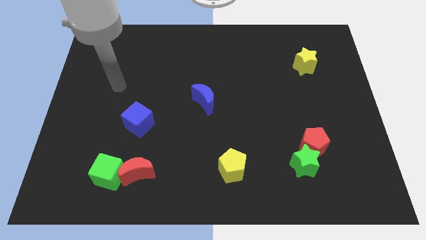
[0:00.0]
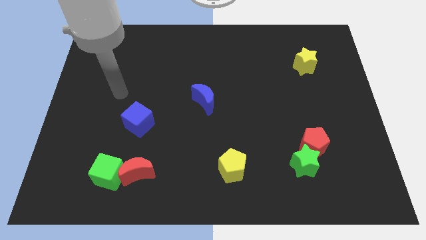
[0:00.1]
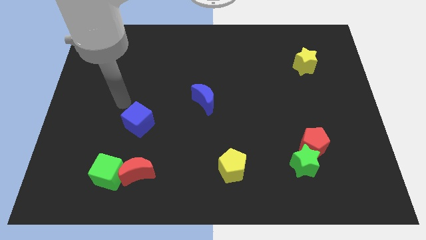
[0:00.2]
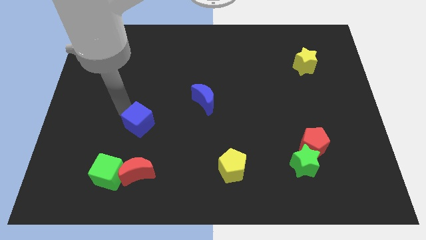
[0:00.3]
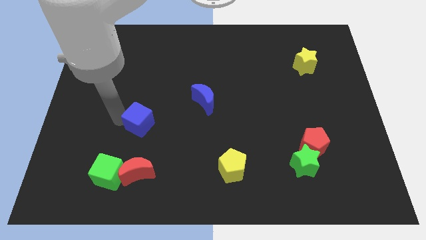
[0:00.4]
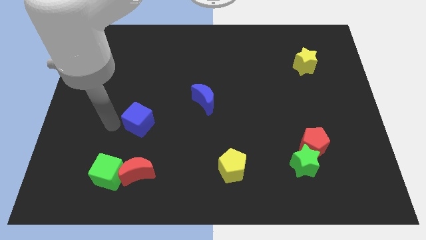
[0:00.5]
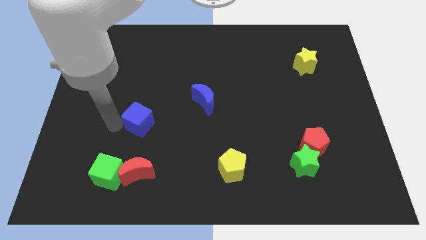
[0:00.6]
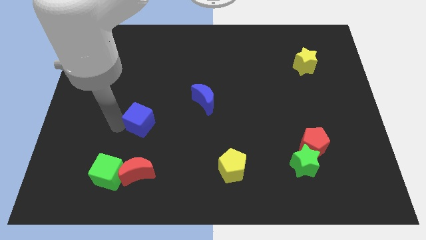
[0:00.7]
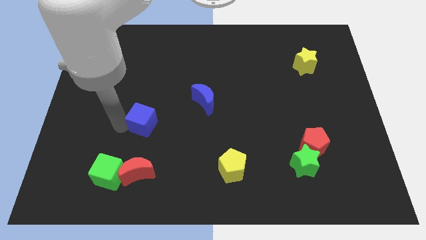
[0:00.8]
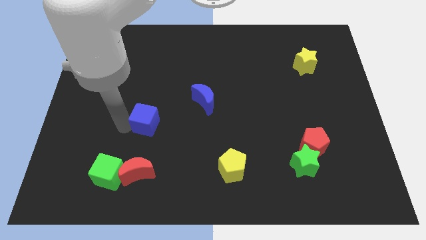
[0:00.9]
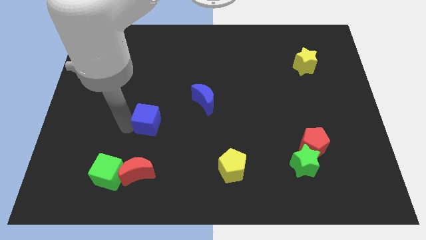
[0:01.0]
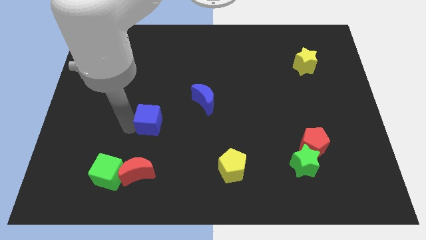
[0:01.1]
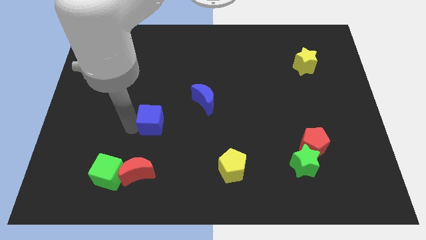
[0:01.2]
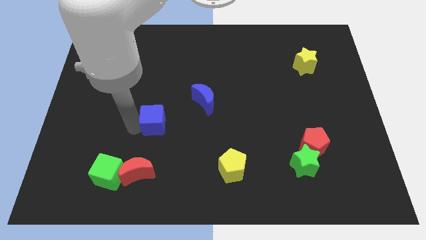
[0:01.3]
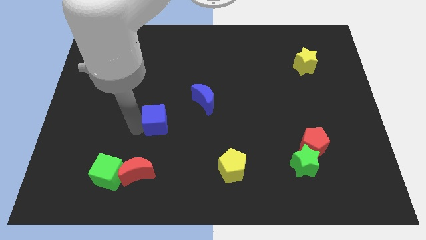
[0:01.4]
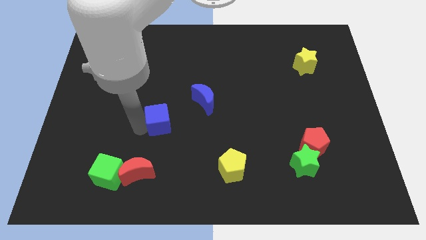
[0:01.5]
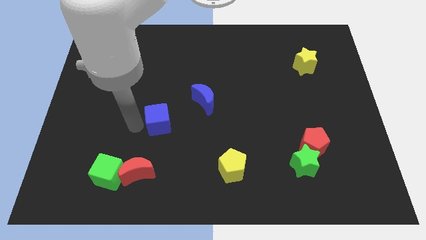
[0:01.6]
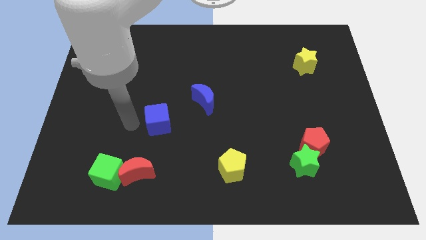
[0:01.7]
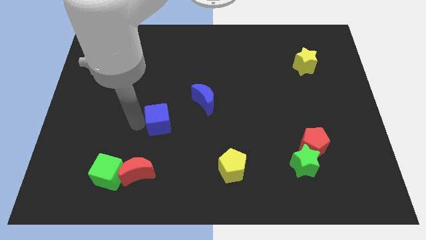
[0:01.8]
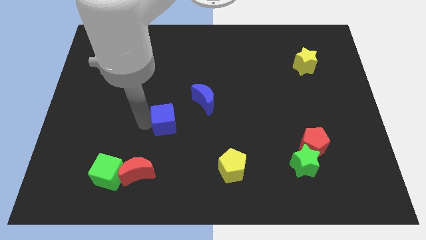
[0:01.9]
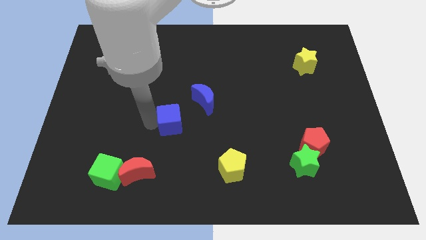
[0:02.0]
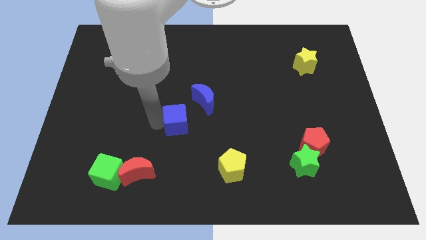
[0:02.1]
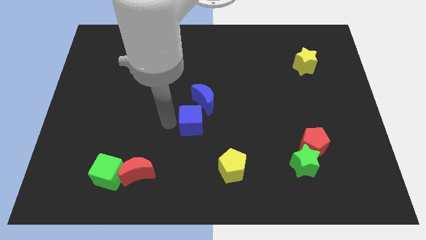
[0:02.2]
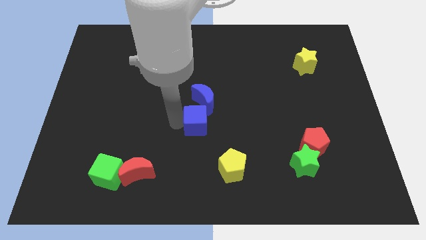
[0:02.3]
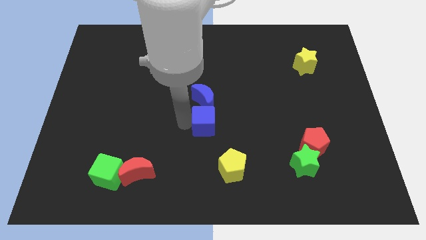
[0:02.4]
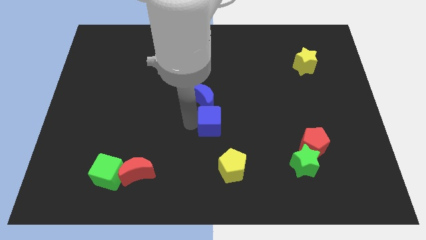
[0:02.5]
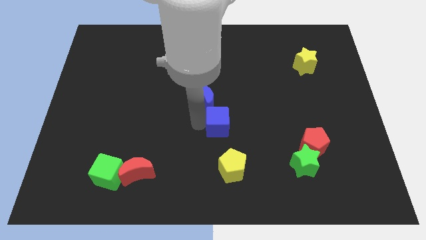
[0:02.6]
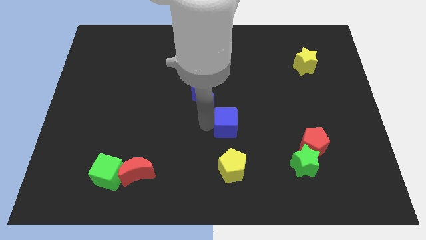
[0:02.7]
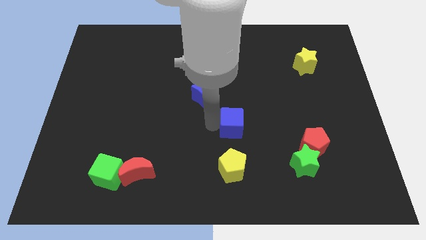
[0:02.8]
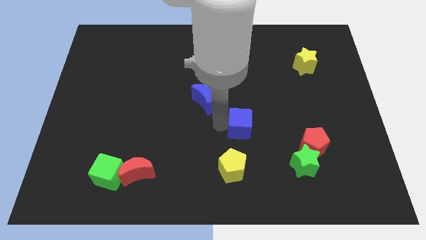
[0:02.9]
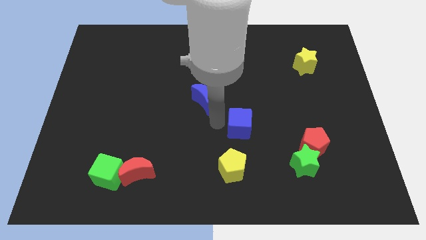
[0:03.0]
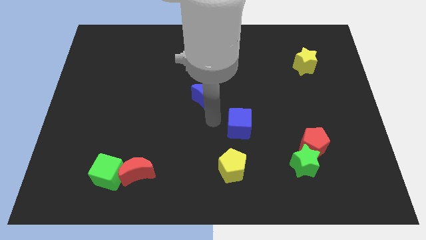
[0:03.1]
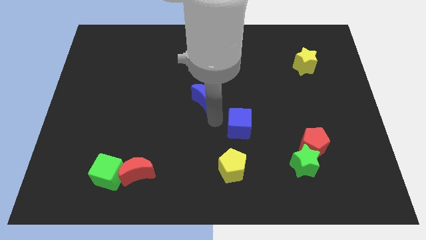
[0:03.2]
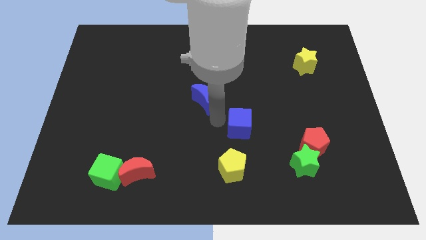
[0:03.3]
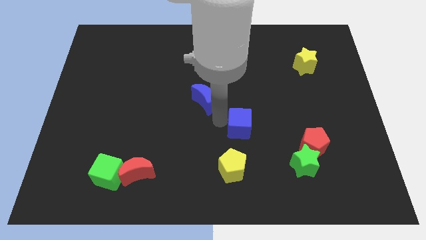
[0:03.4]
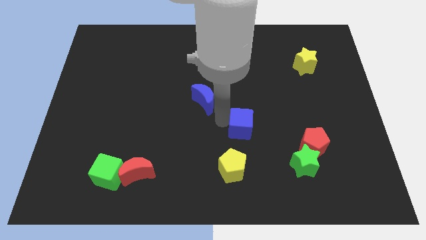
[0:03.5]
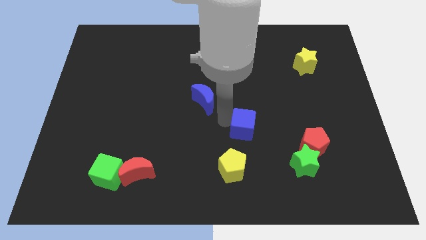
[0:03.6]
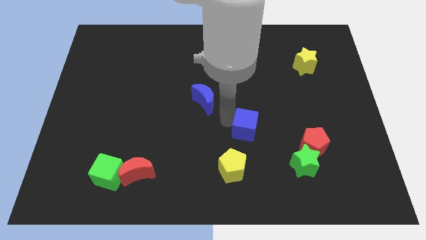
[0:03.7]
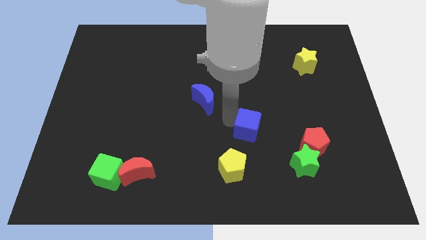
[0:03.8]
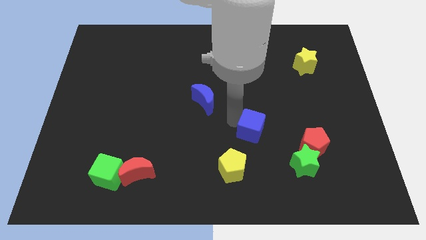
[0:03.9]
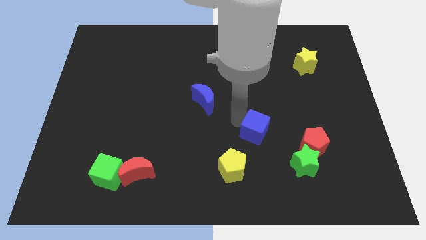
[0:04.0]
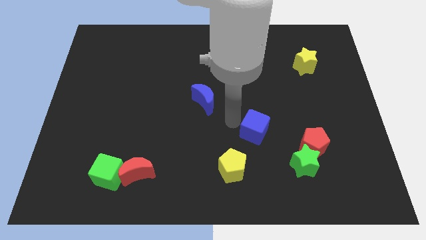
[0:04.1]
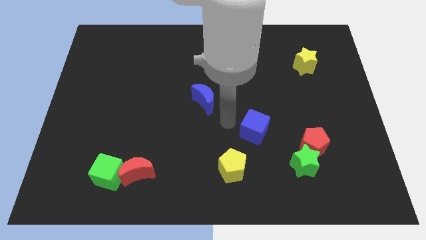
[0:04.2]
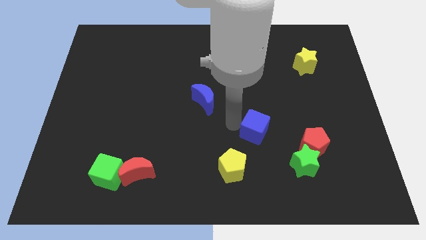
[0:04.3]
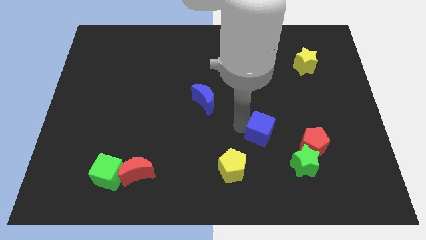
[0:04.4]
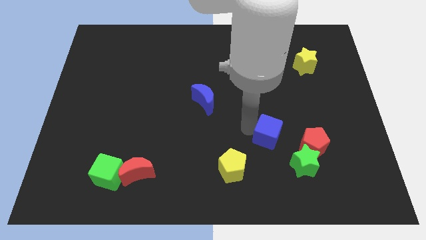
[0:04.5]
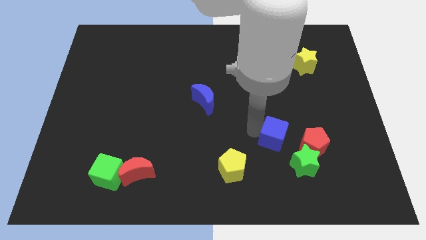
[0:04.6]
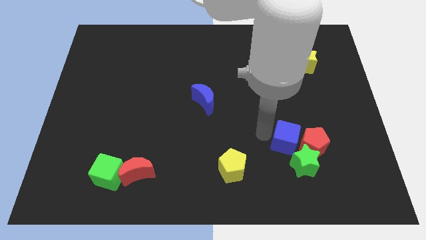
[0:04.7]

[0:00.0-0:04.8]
move the blue cube close to the red pentagon

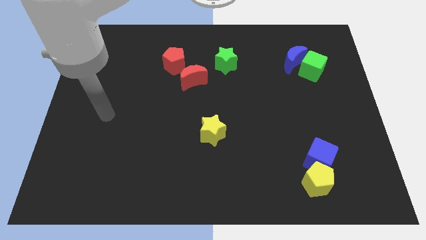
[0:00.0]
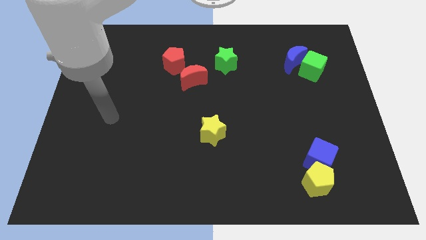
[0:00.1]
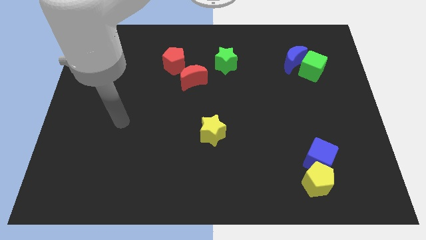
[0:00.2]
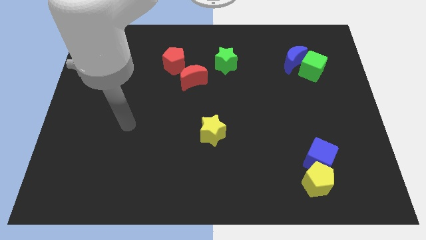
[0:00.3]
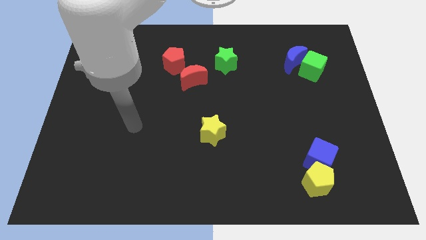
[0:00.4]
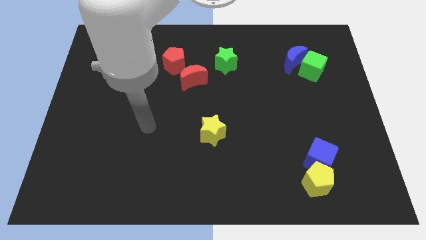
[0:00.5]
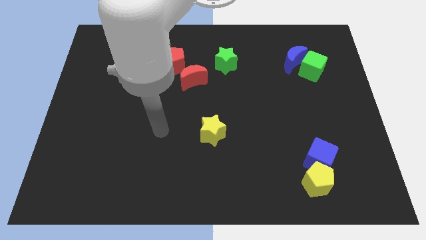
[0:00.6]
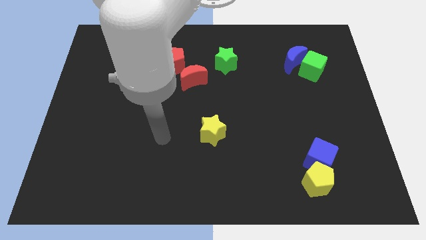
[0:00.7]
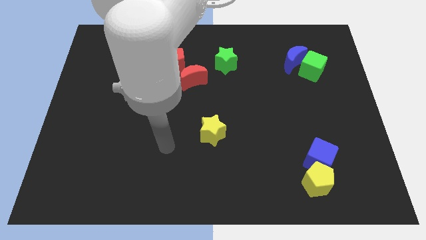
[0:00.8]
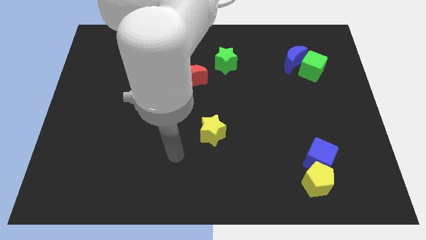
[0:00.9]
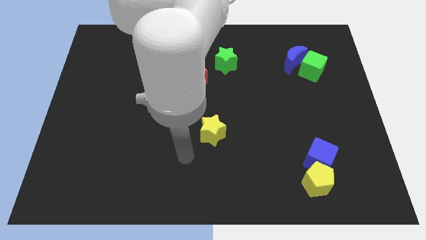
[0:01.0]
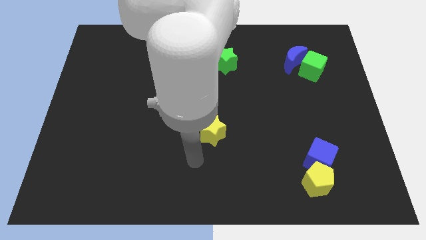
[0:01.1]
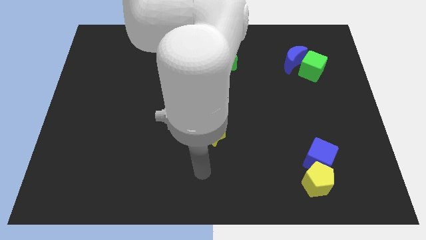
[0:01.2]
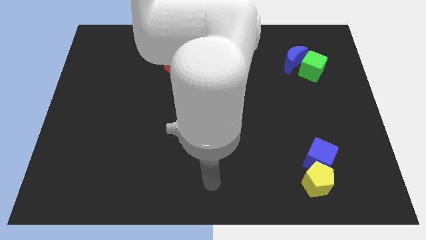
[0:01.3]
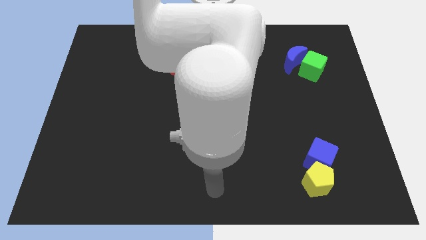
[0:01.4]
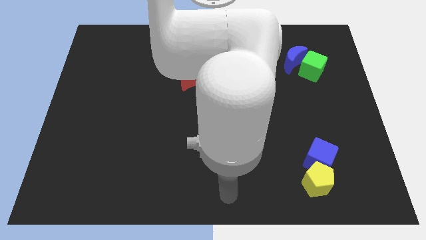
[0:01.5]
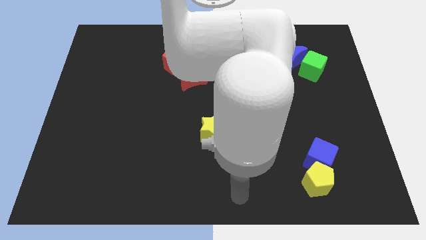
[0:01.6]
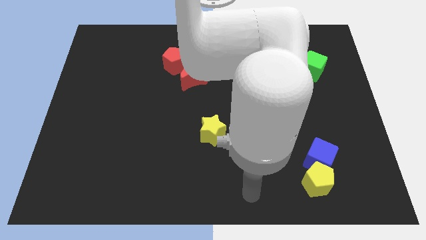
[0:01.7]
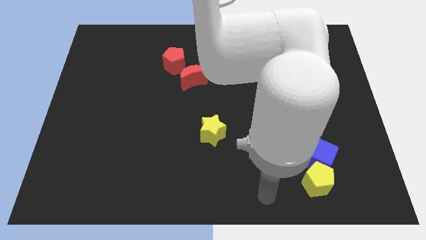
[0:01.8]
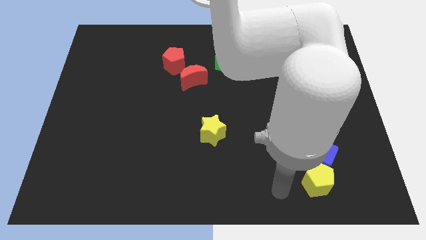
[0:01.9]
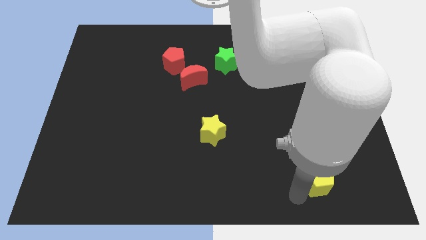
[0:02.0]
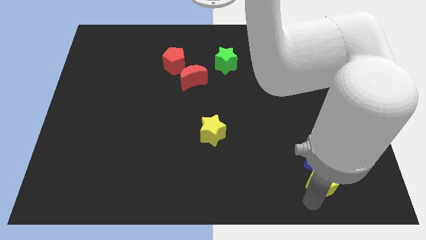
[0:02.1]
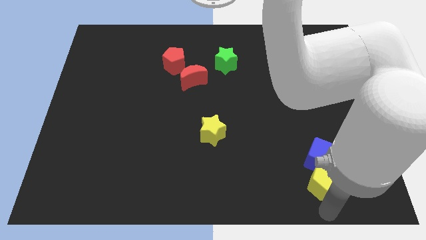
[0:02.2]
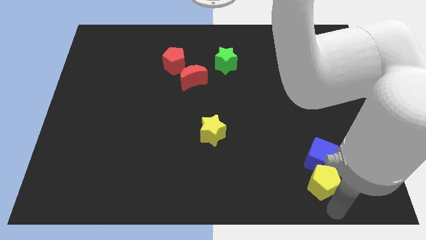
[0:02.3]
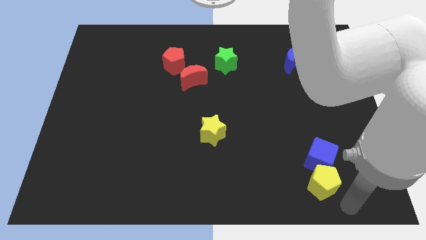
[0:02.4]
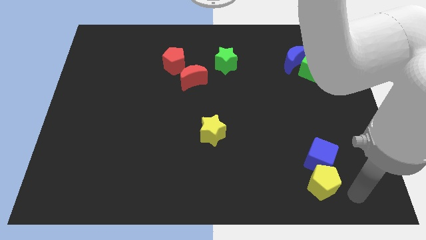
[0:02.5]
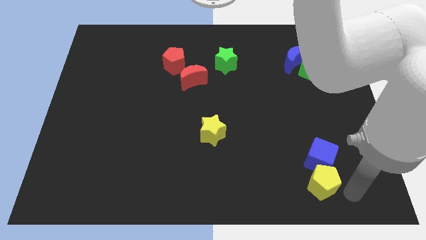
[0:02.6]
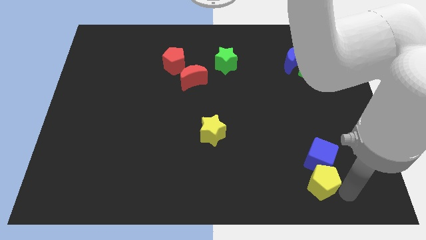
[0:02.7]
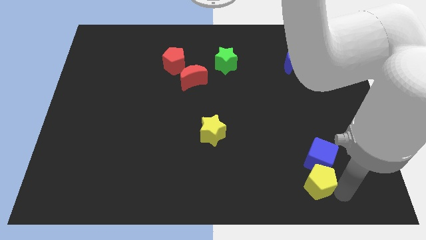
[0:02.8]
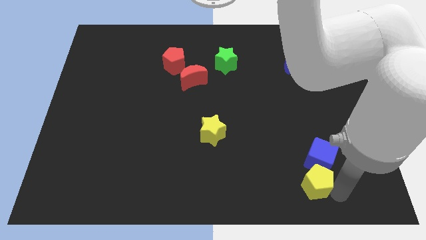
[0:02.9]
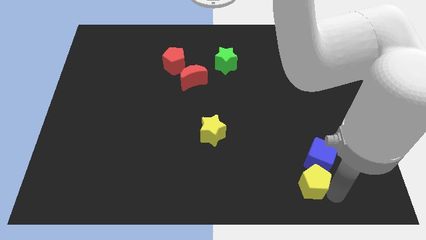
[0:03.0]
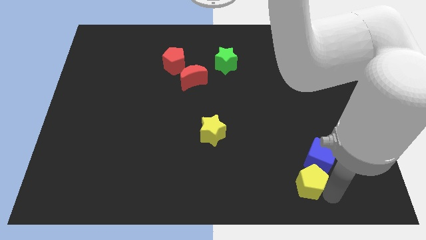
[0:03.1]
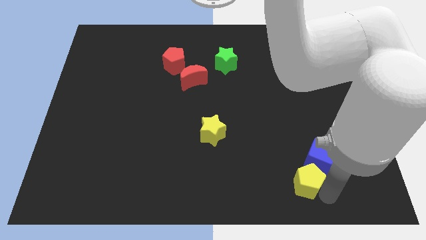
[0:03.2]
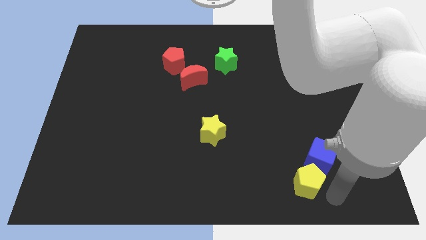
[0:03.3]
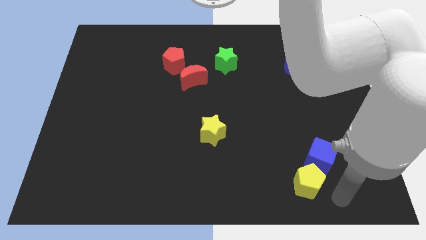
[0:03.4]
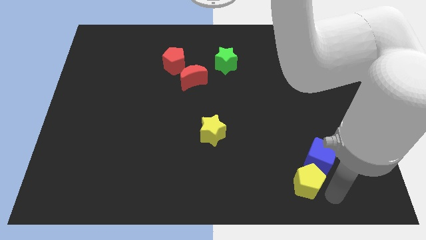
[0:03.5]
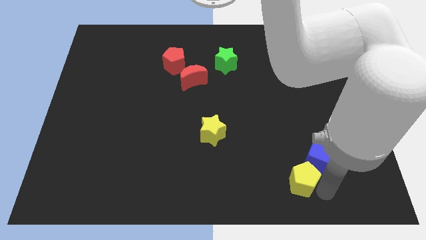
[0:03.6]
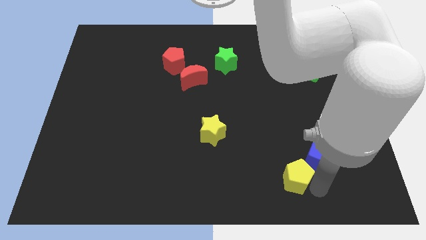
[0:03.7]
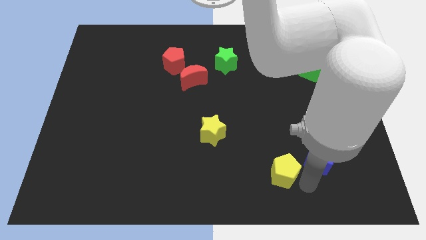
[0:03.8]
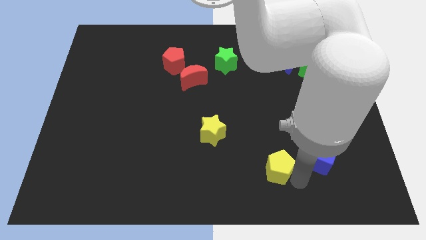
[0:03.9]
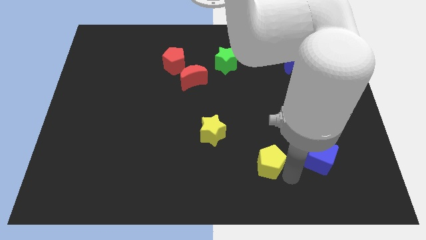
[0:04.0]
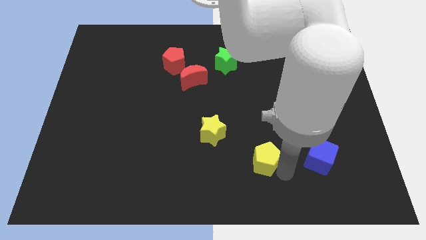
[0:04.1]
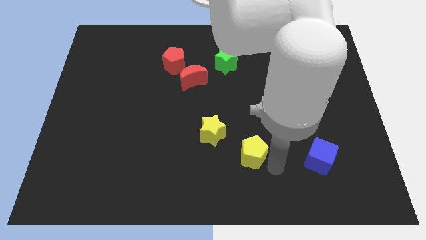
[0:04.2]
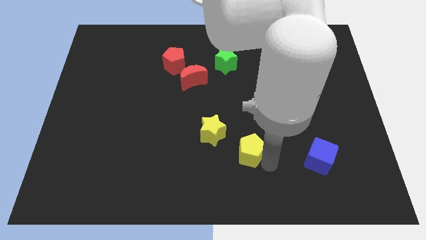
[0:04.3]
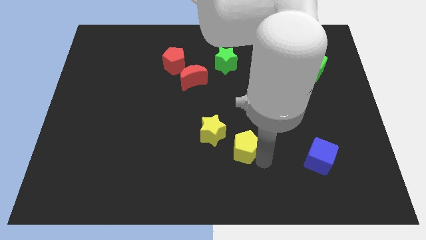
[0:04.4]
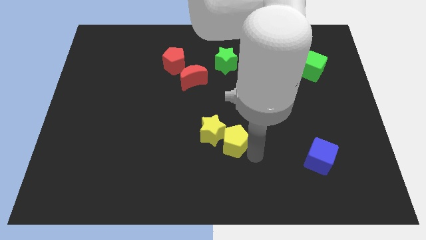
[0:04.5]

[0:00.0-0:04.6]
put the yellow pentagon towards the yellow star
